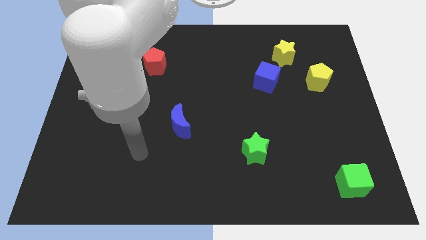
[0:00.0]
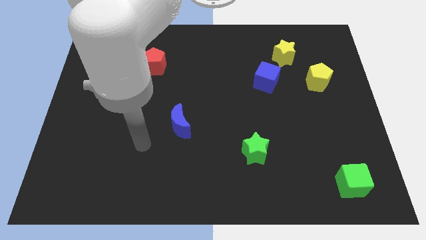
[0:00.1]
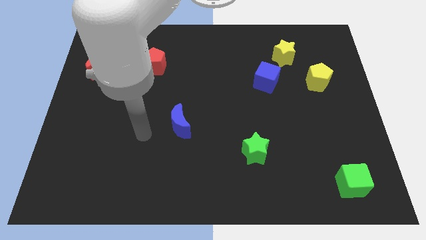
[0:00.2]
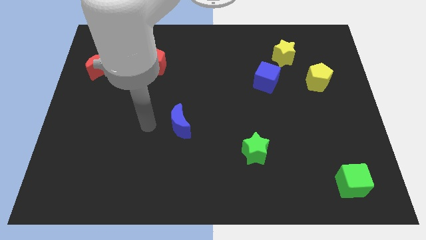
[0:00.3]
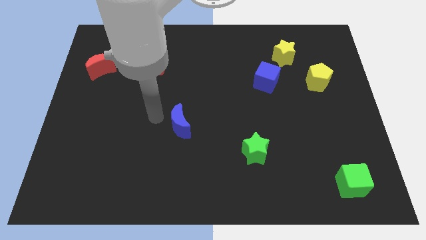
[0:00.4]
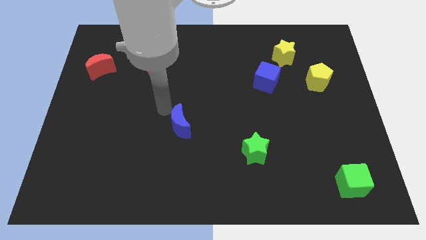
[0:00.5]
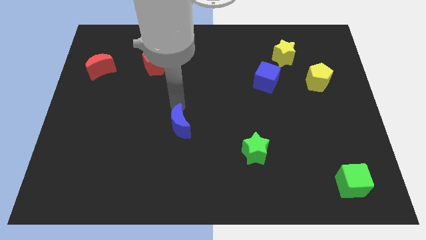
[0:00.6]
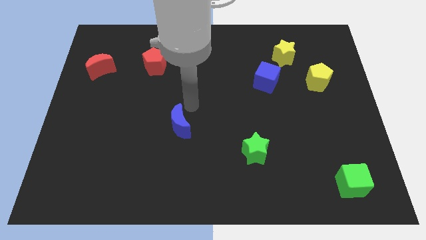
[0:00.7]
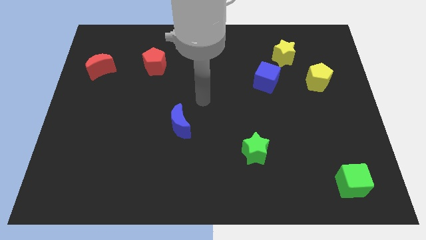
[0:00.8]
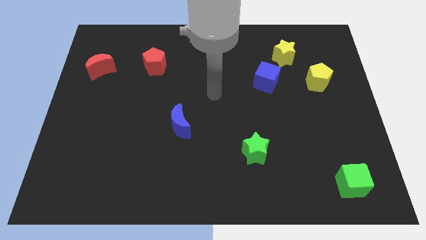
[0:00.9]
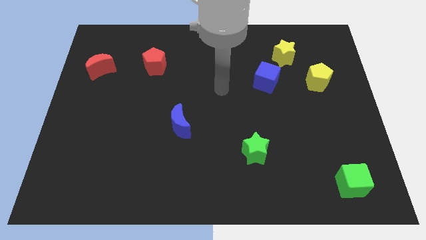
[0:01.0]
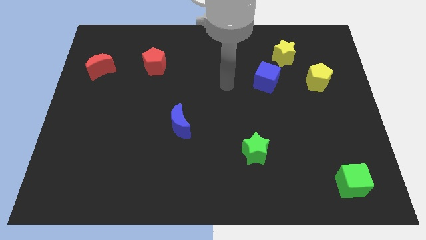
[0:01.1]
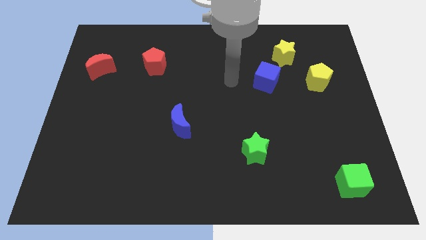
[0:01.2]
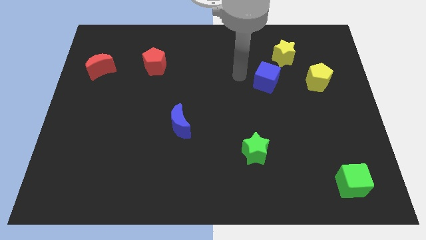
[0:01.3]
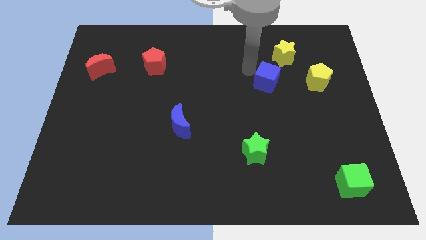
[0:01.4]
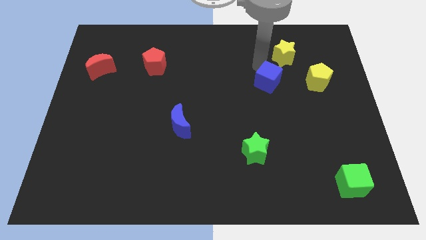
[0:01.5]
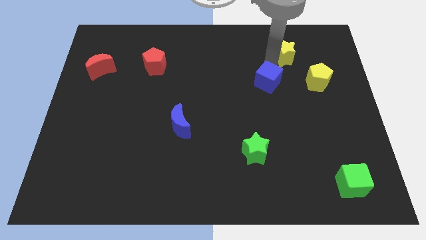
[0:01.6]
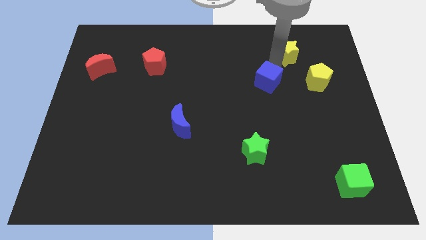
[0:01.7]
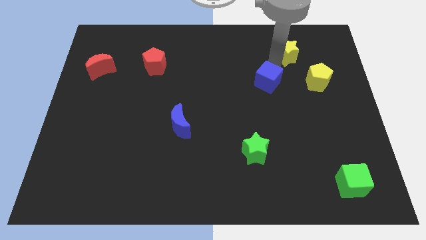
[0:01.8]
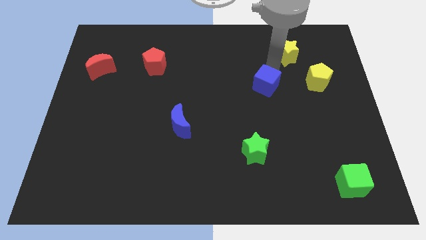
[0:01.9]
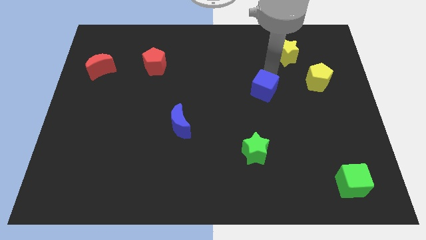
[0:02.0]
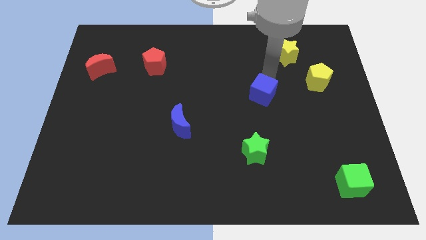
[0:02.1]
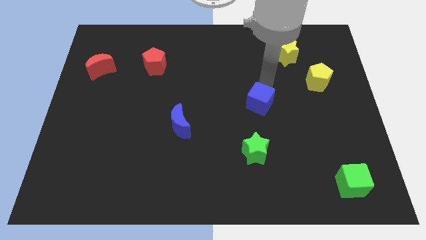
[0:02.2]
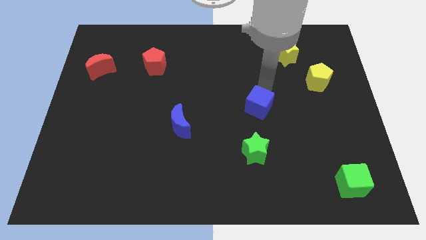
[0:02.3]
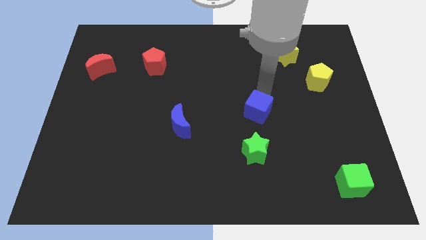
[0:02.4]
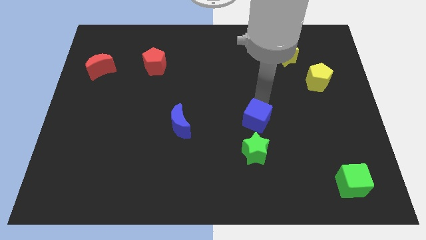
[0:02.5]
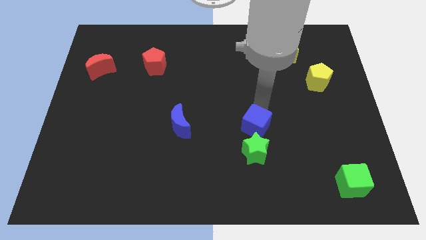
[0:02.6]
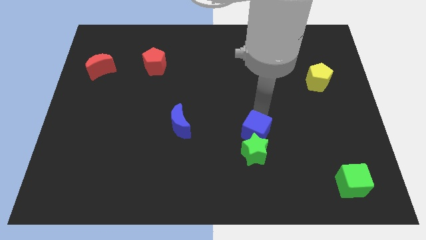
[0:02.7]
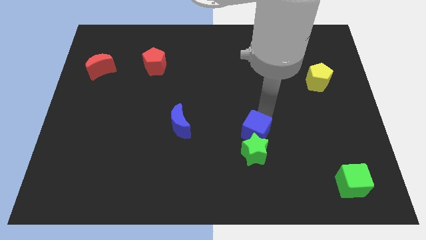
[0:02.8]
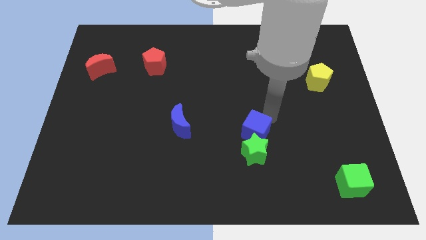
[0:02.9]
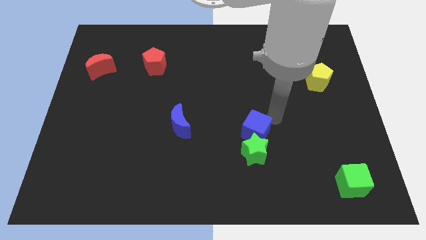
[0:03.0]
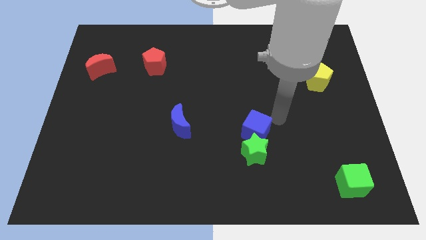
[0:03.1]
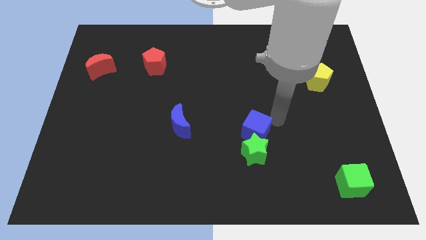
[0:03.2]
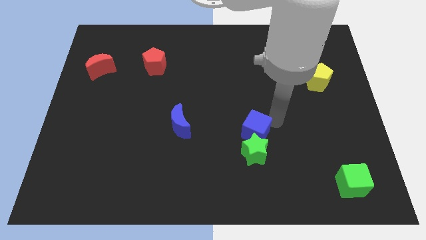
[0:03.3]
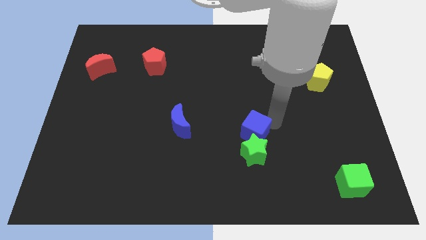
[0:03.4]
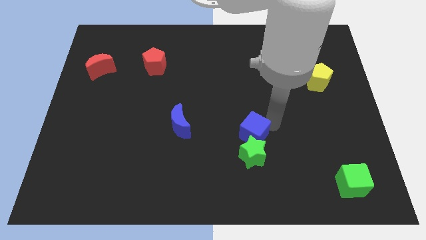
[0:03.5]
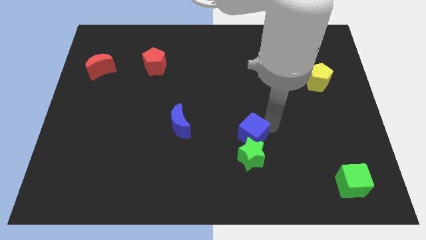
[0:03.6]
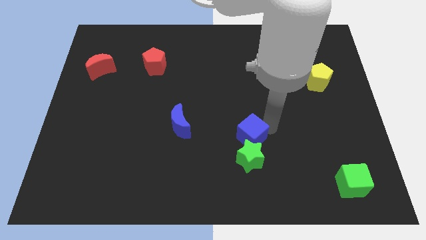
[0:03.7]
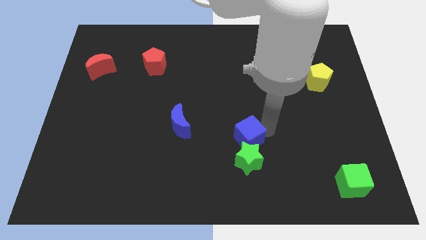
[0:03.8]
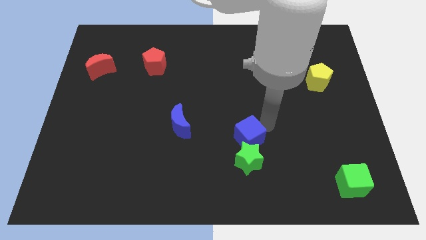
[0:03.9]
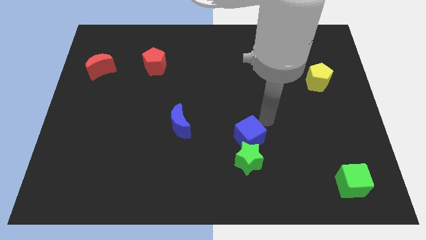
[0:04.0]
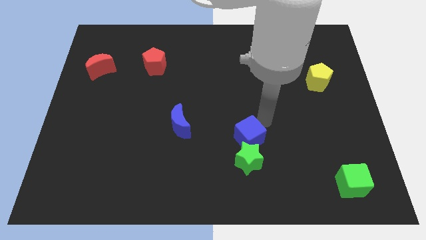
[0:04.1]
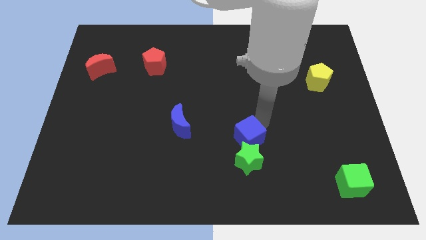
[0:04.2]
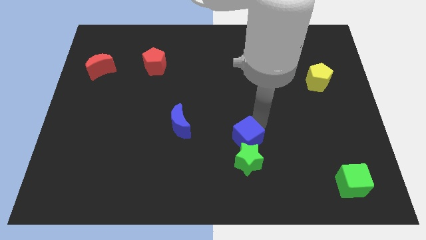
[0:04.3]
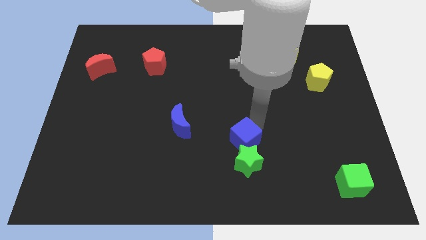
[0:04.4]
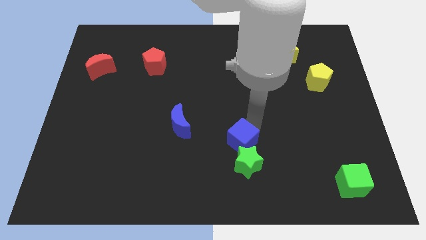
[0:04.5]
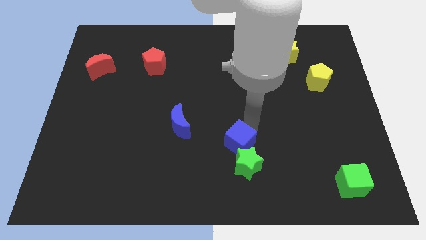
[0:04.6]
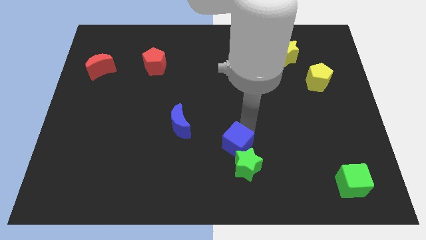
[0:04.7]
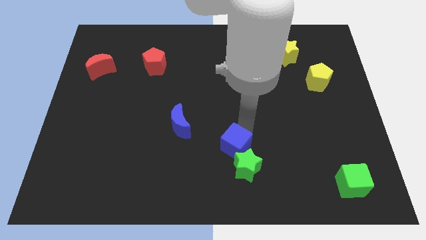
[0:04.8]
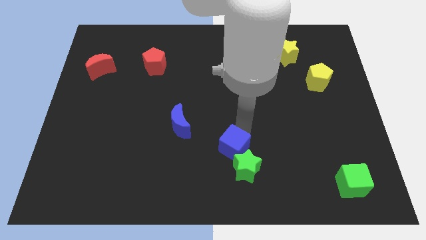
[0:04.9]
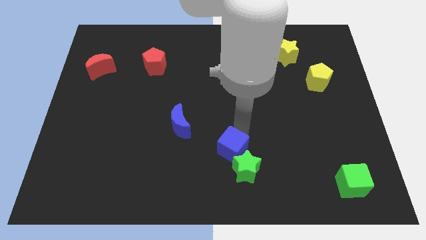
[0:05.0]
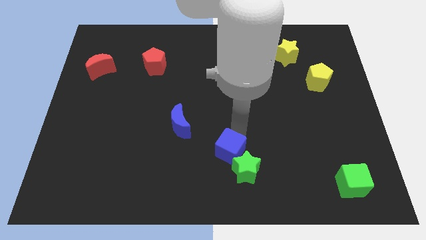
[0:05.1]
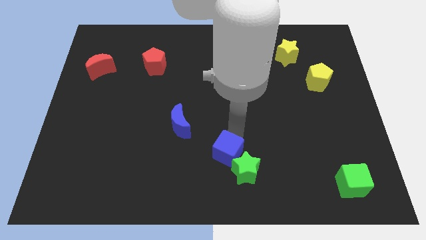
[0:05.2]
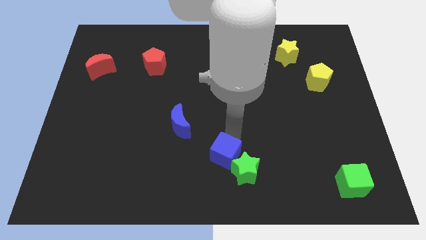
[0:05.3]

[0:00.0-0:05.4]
slide the blue cube to the bottom

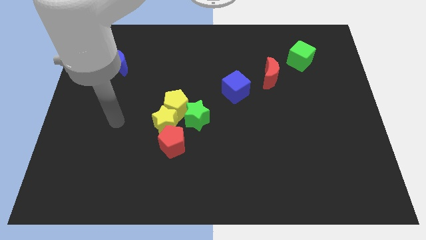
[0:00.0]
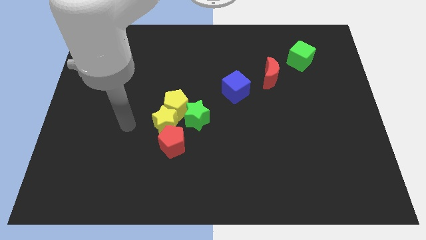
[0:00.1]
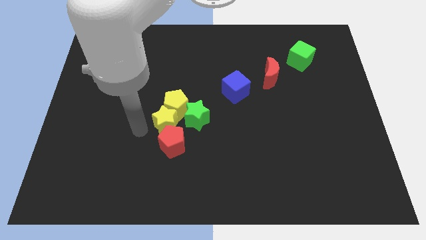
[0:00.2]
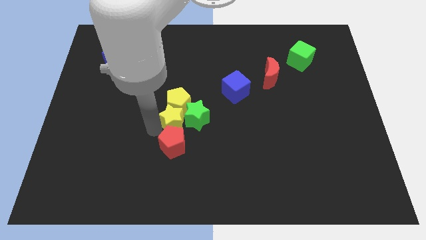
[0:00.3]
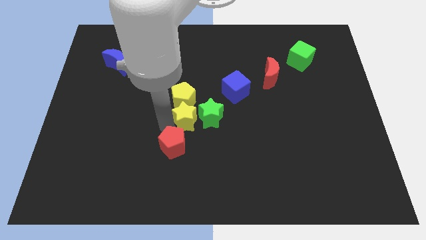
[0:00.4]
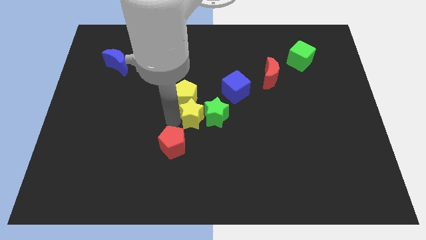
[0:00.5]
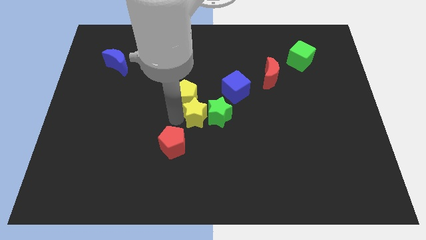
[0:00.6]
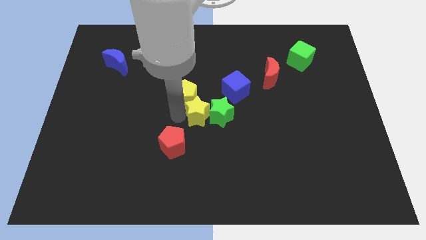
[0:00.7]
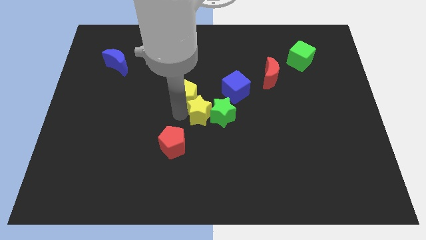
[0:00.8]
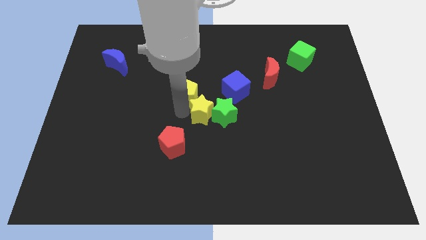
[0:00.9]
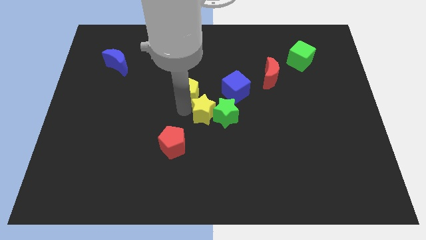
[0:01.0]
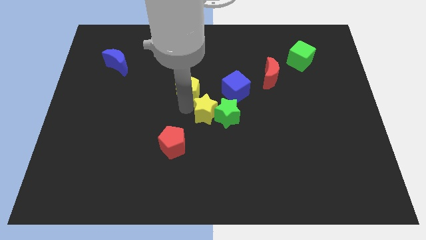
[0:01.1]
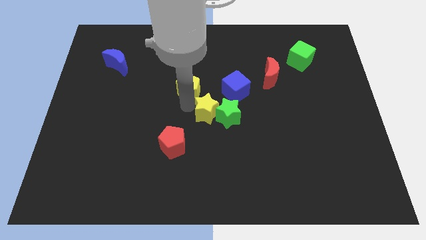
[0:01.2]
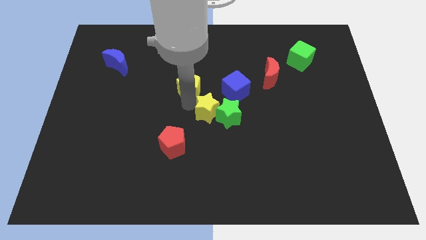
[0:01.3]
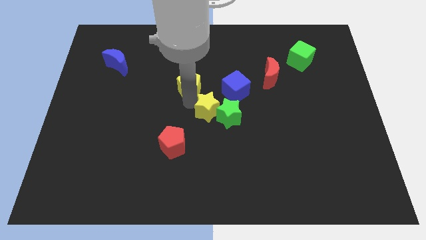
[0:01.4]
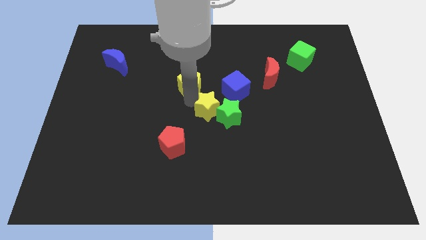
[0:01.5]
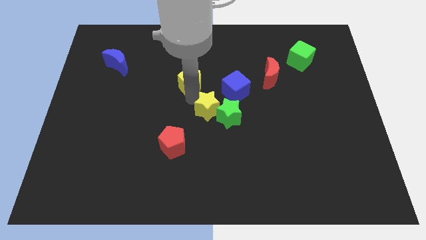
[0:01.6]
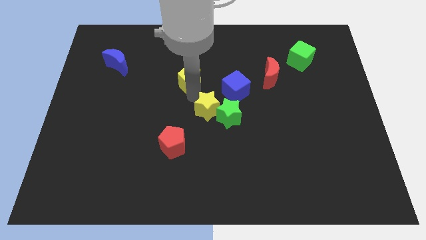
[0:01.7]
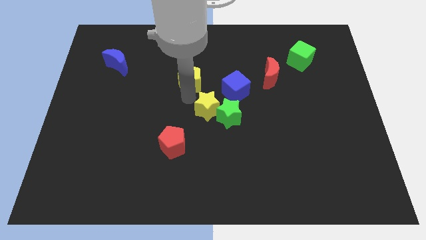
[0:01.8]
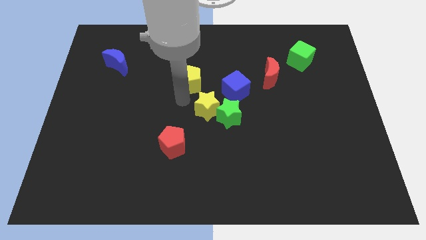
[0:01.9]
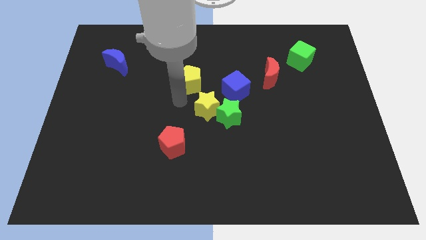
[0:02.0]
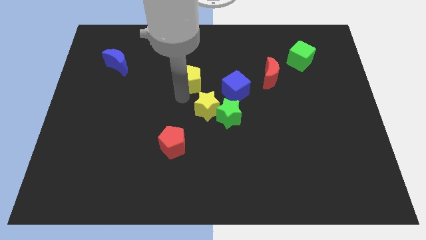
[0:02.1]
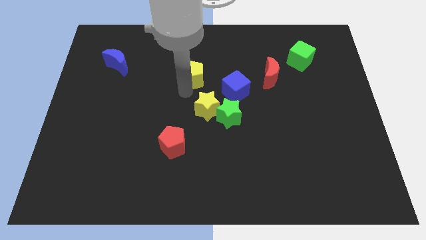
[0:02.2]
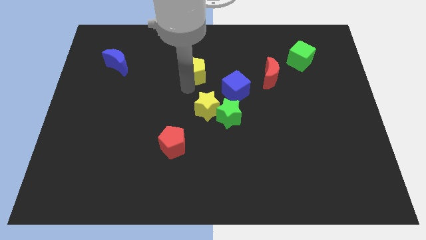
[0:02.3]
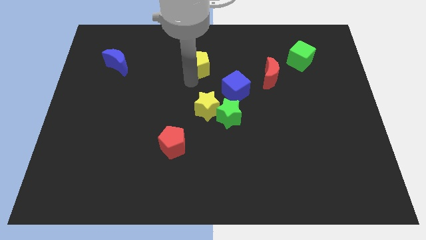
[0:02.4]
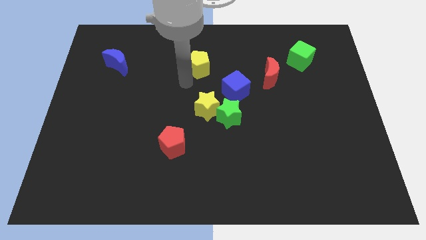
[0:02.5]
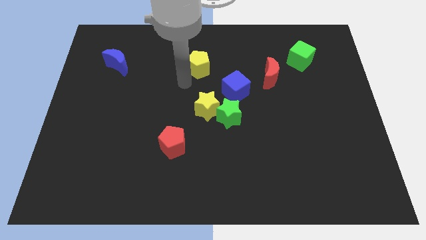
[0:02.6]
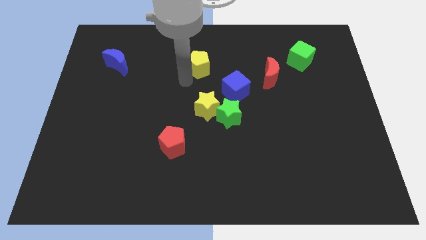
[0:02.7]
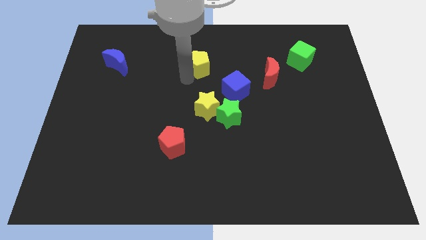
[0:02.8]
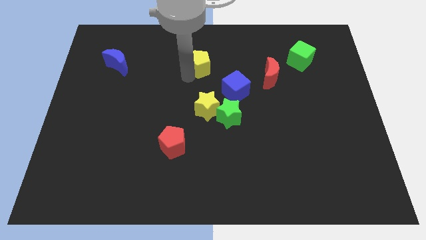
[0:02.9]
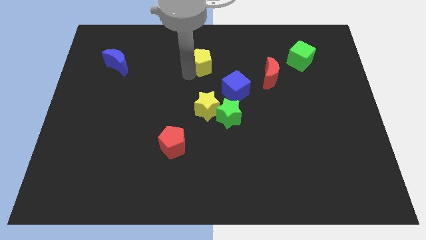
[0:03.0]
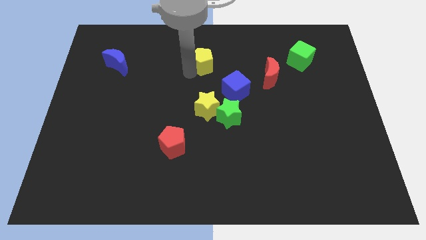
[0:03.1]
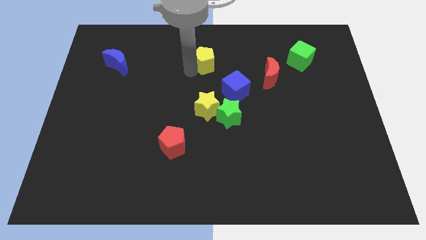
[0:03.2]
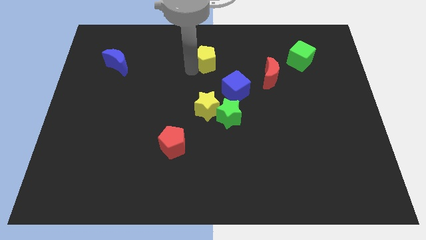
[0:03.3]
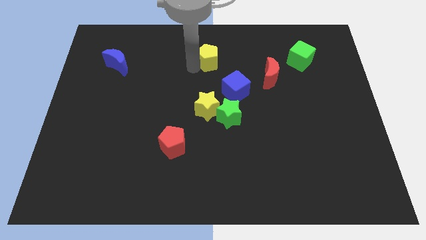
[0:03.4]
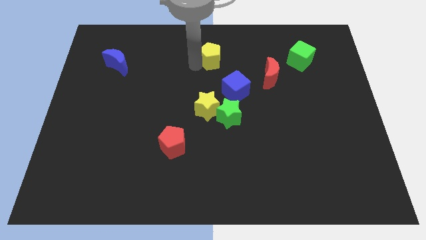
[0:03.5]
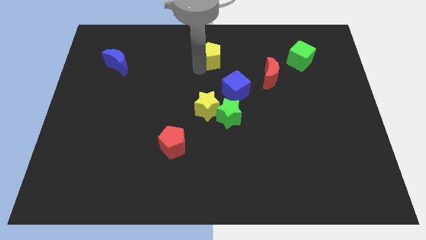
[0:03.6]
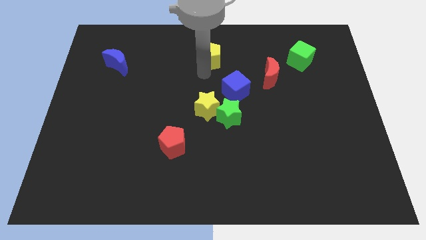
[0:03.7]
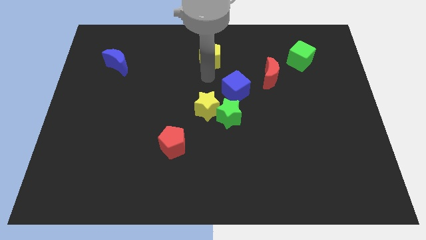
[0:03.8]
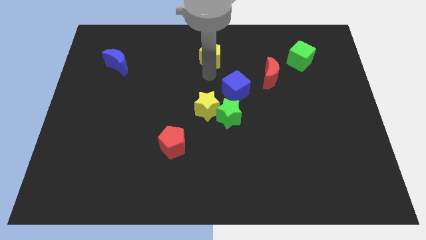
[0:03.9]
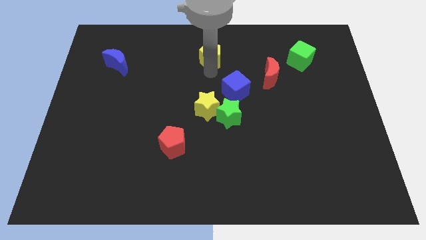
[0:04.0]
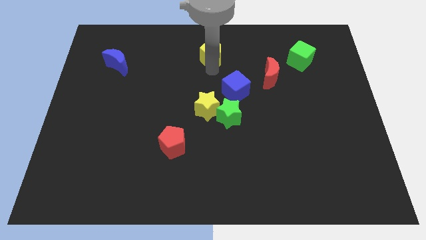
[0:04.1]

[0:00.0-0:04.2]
slide the yellow pentagon to the towards your base
